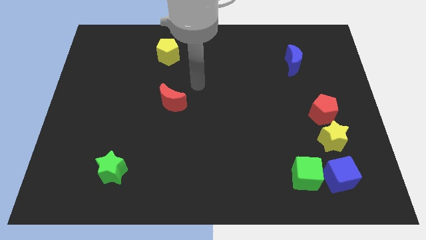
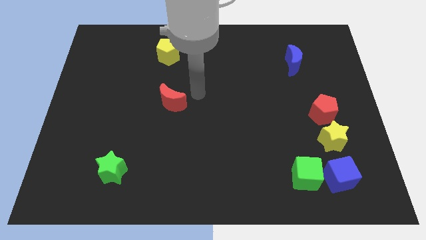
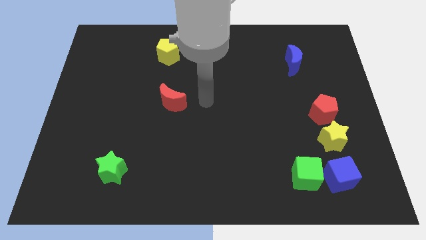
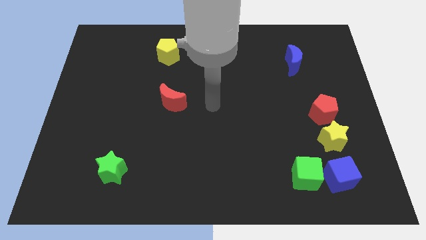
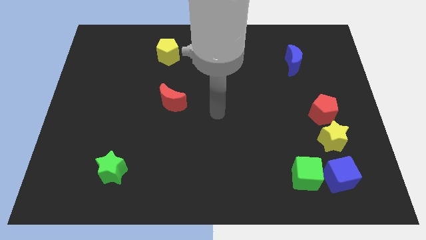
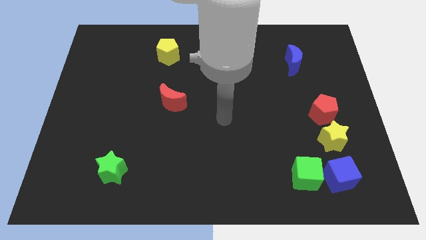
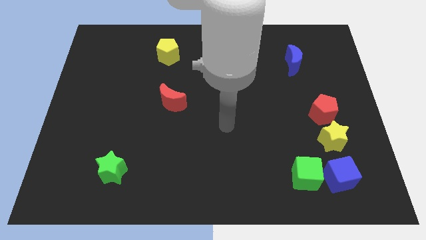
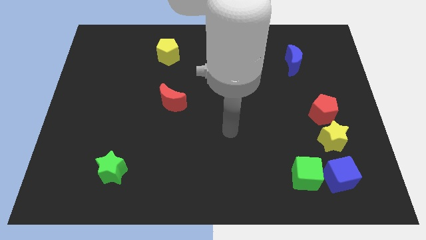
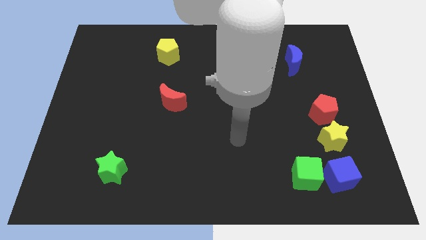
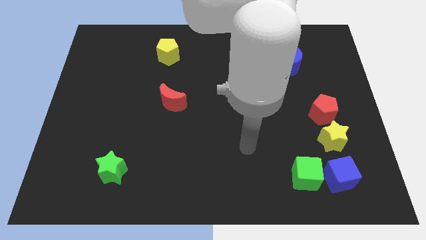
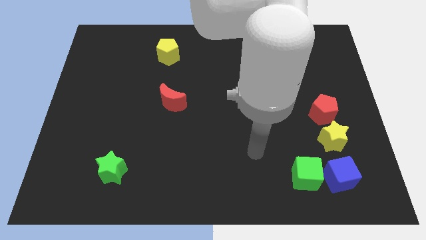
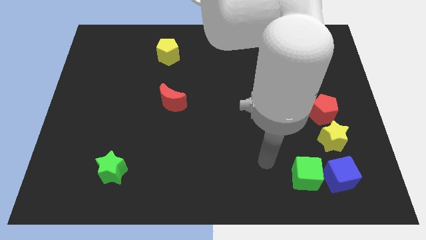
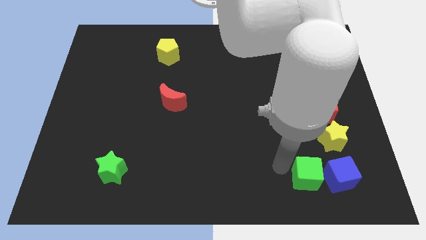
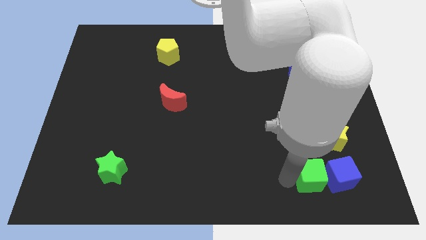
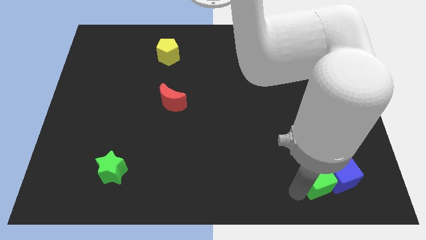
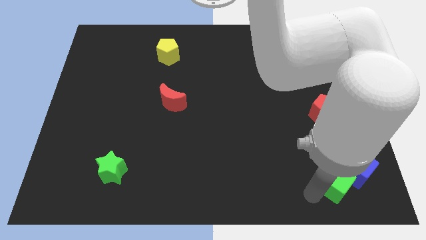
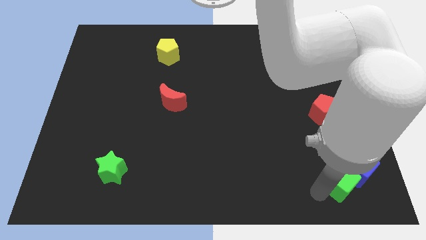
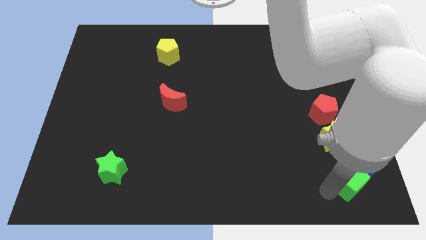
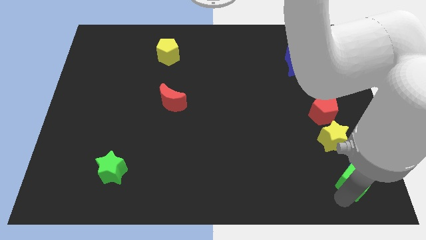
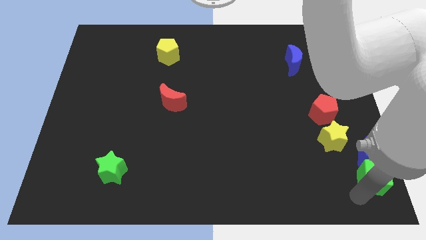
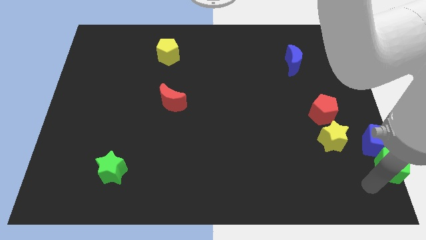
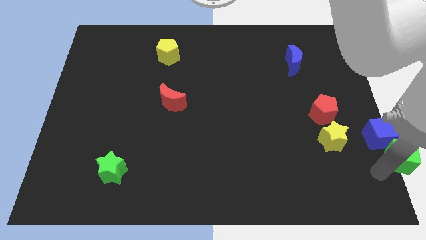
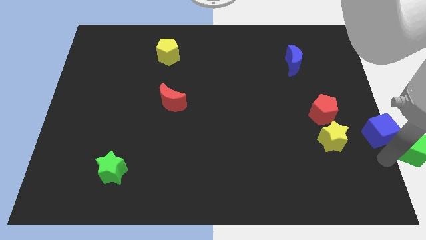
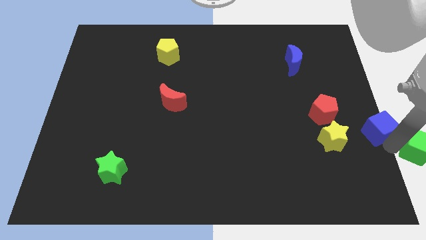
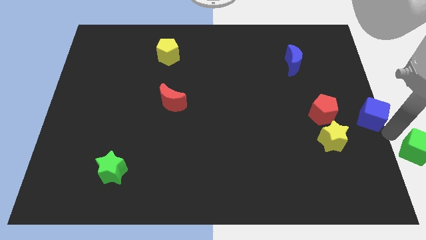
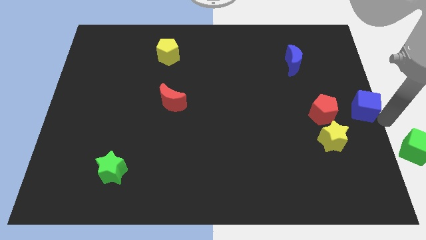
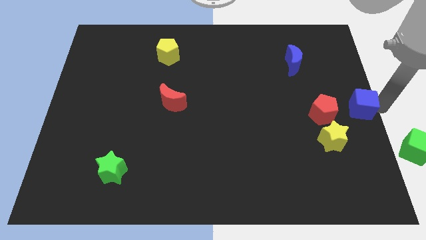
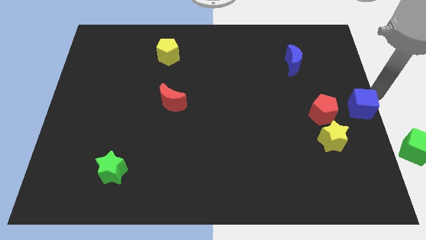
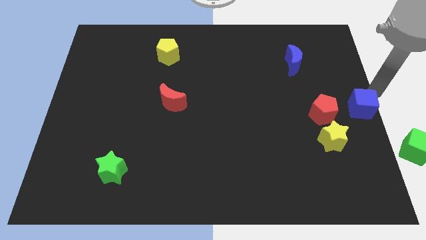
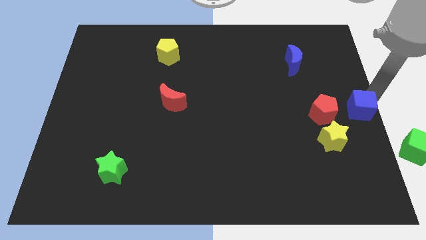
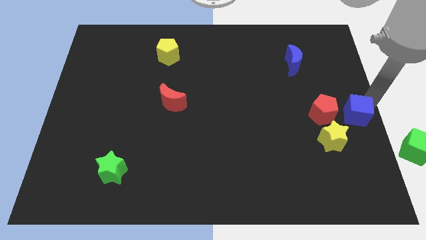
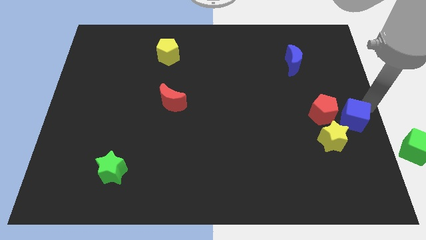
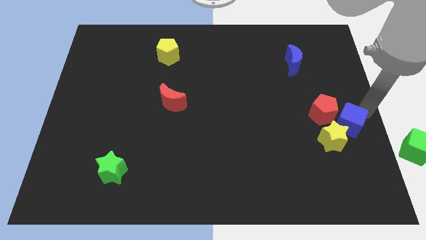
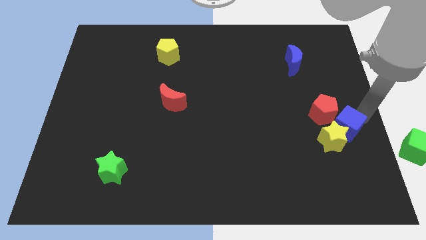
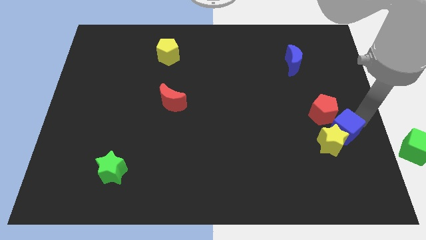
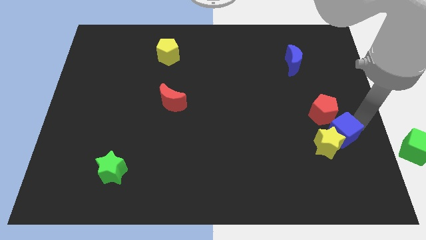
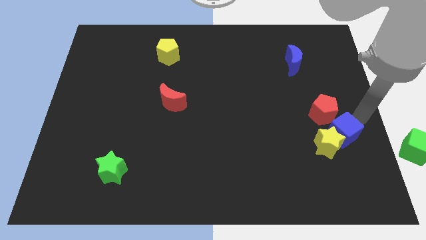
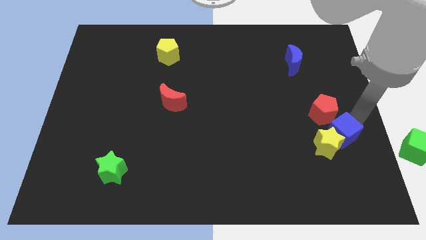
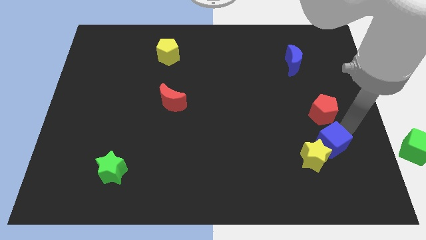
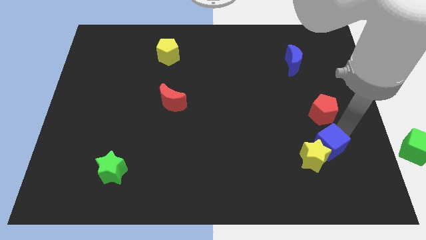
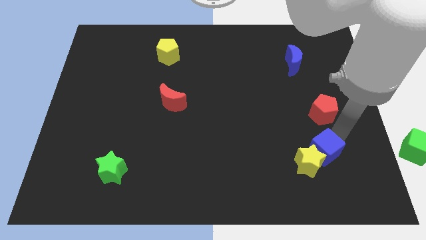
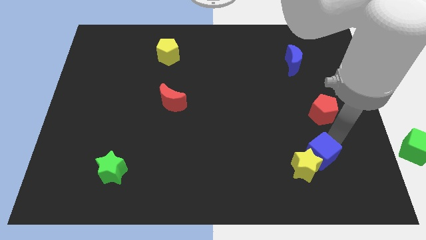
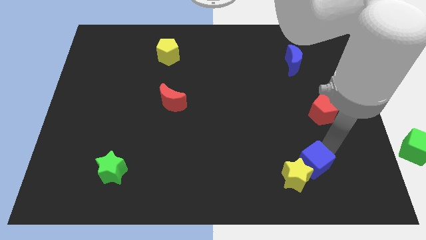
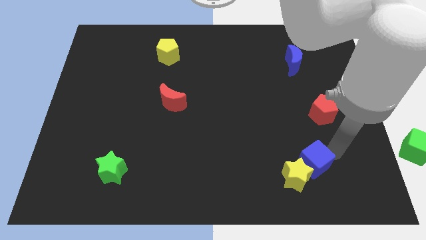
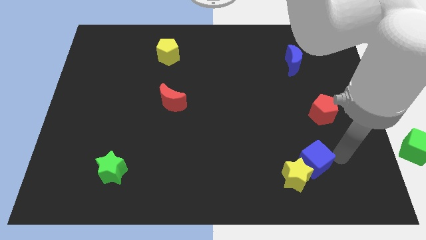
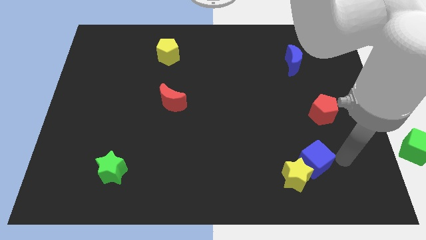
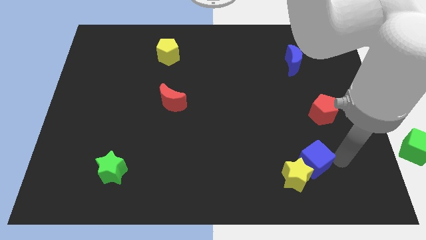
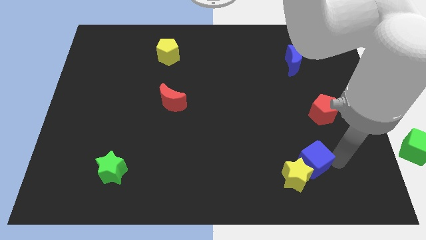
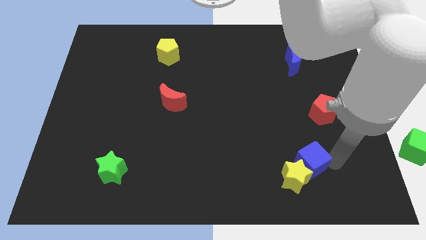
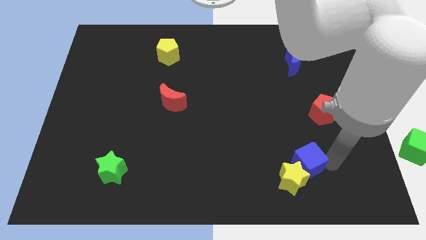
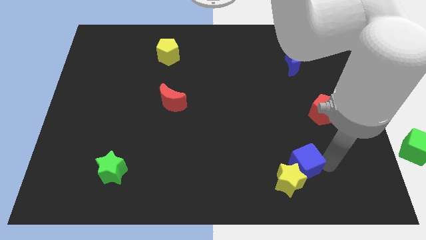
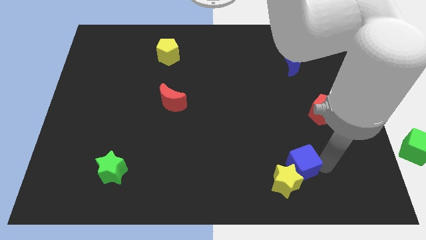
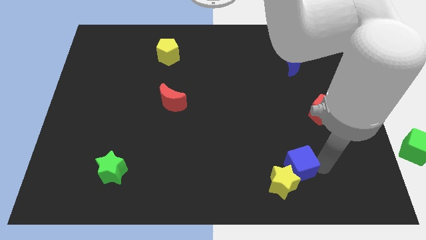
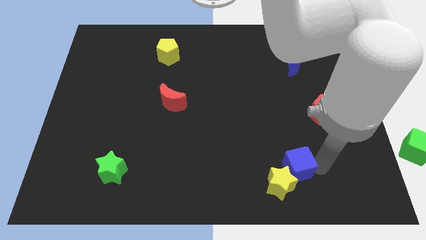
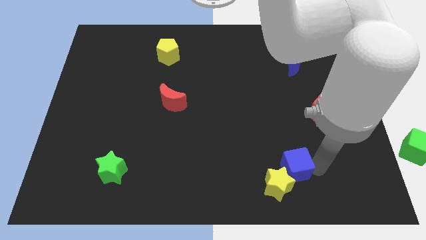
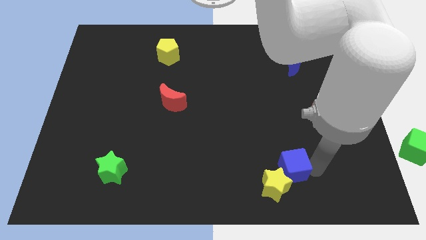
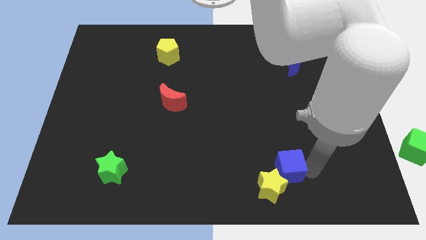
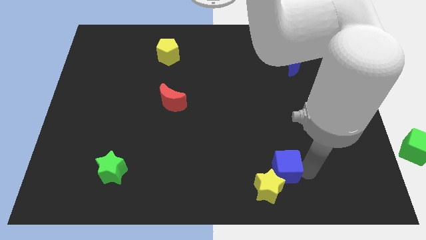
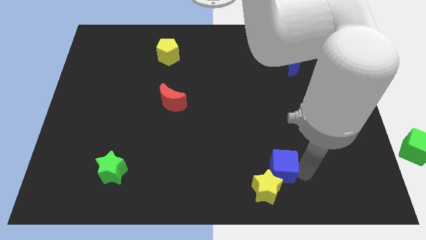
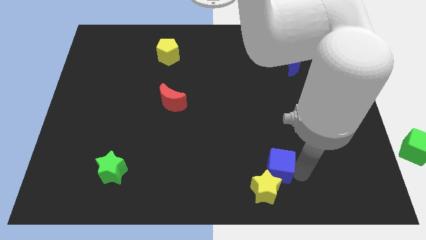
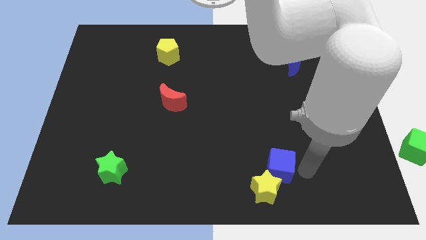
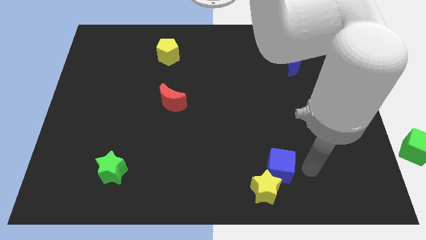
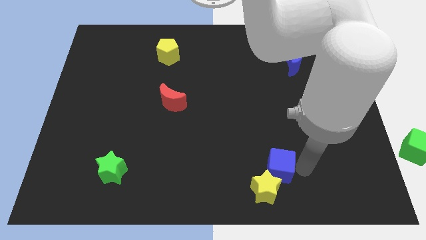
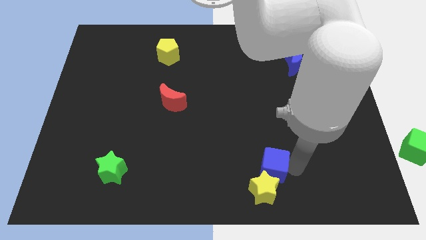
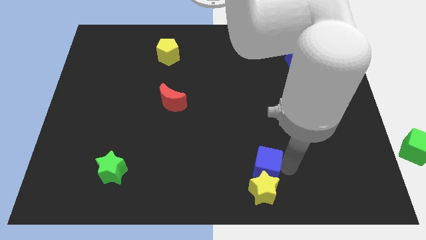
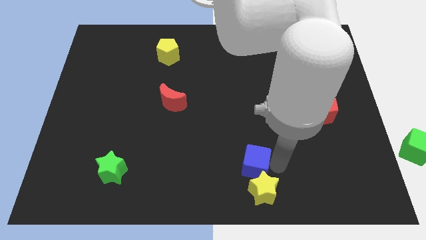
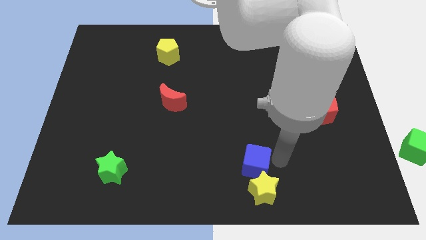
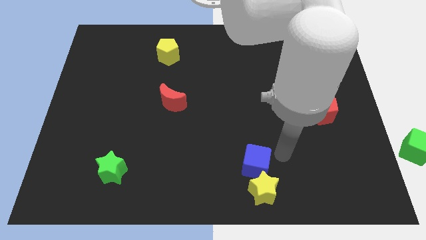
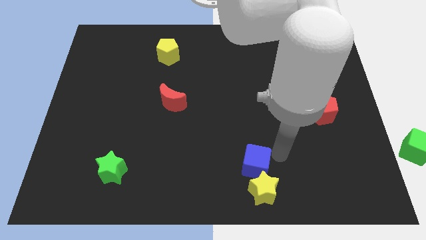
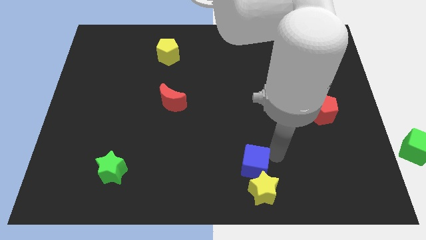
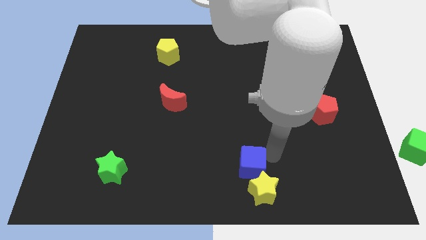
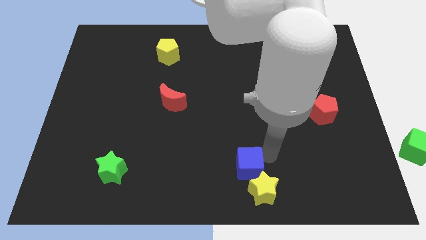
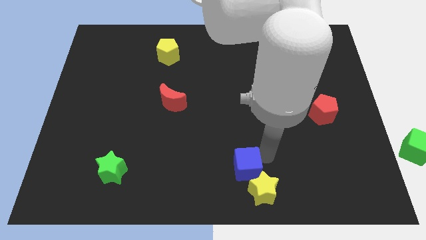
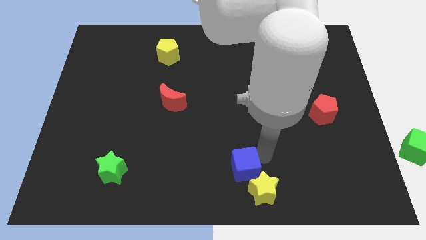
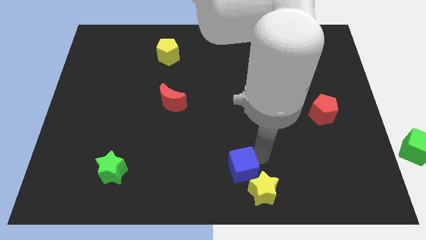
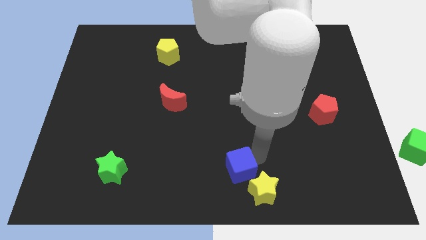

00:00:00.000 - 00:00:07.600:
move the blue cube left

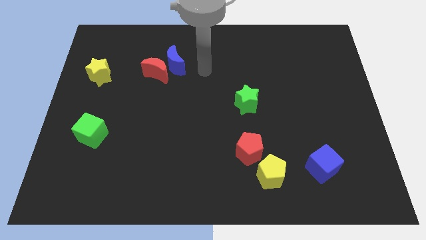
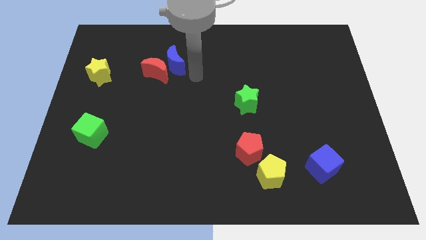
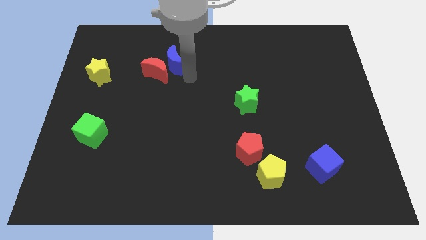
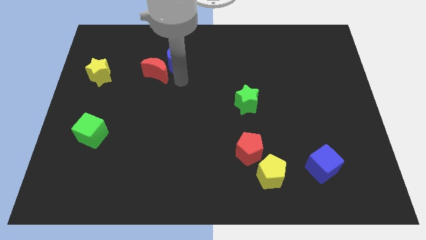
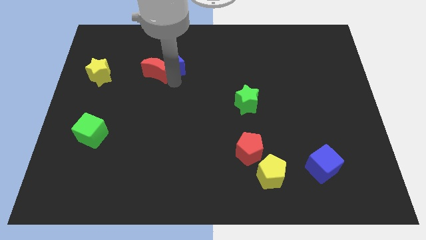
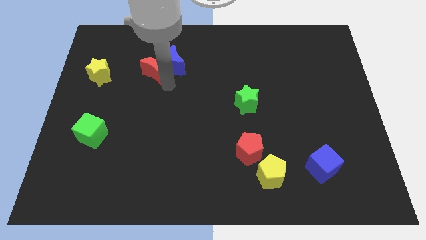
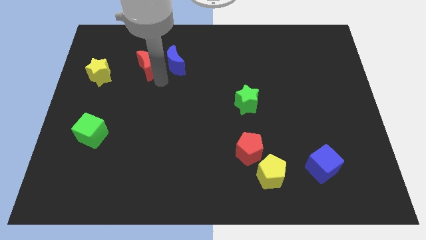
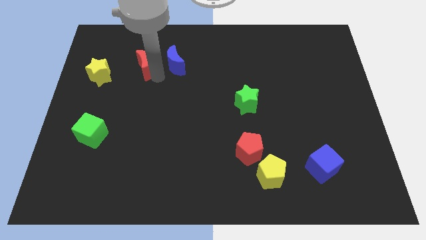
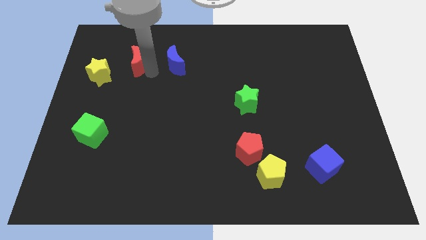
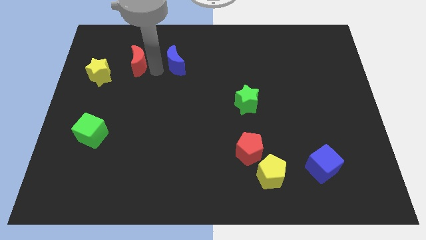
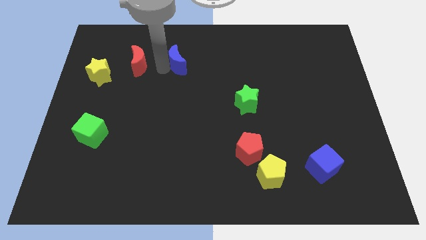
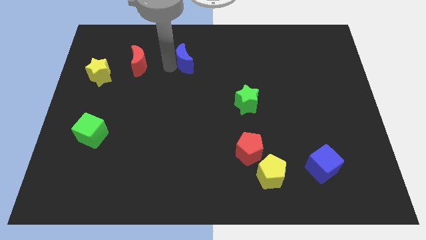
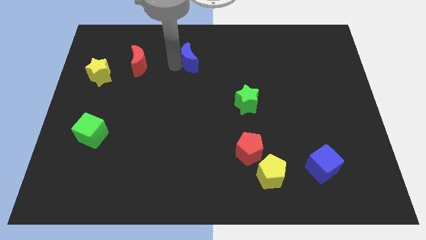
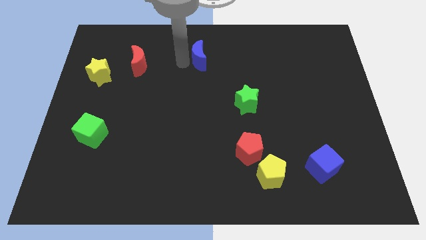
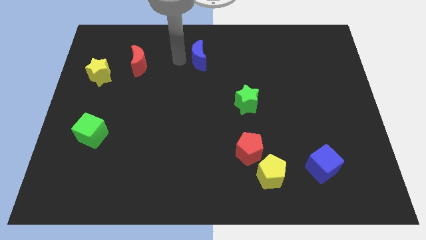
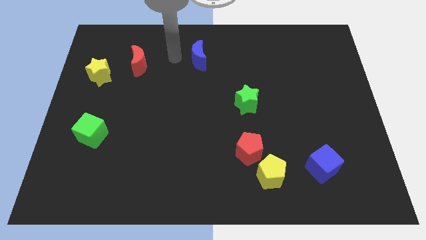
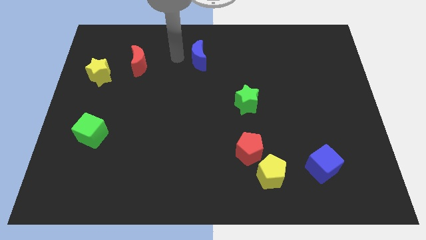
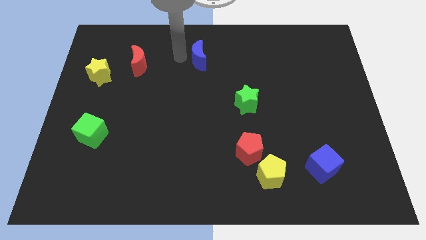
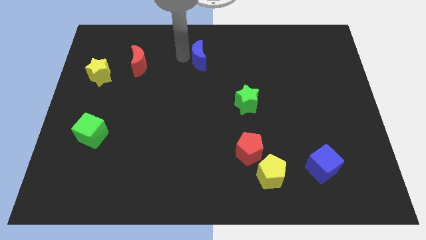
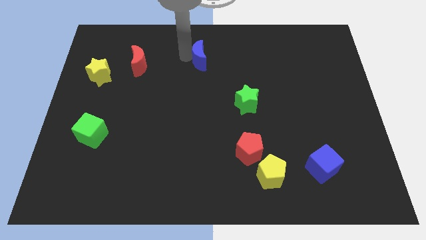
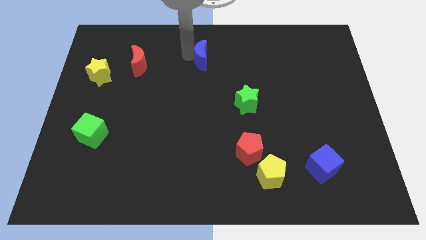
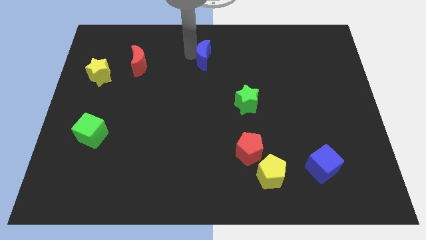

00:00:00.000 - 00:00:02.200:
slightly slide the blue moon to the right
